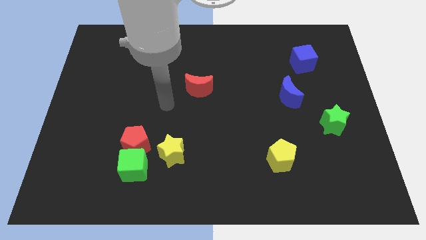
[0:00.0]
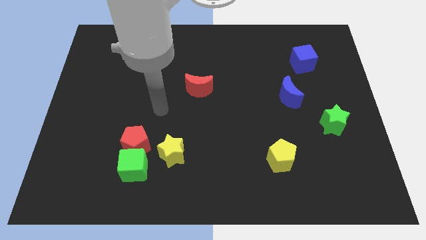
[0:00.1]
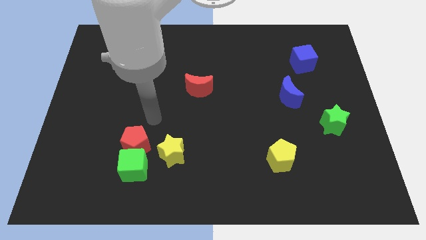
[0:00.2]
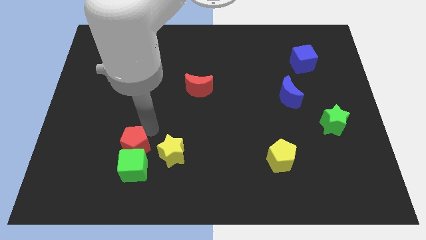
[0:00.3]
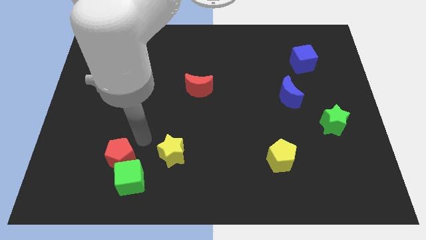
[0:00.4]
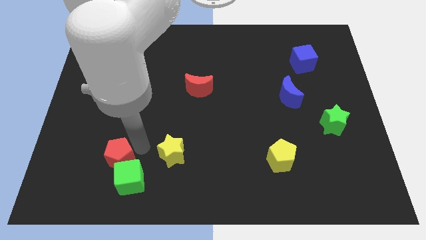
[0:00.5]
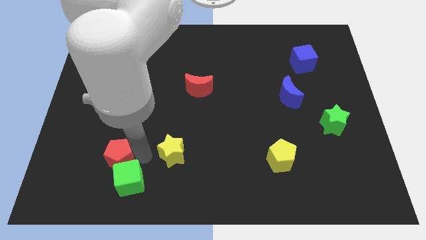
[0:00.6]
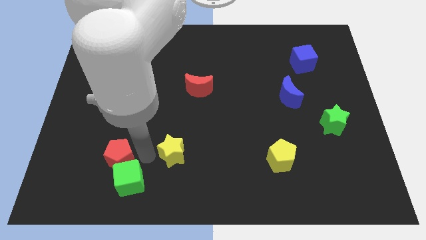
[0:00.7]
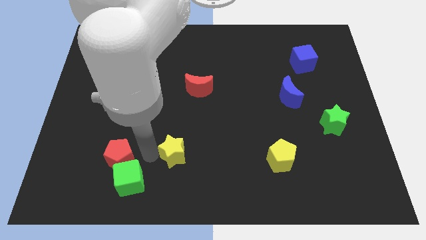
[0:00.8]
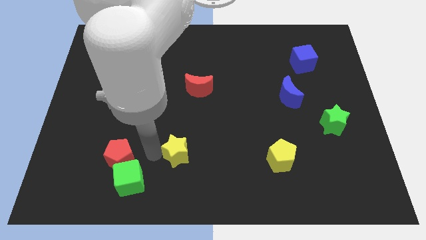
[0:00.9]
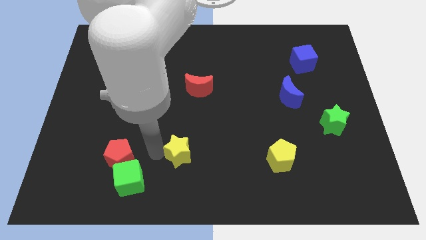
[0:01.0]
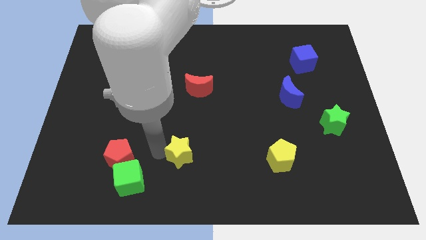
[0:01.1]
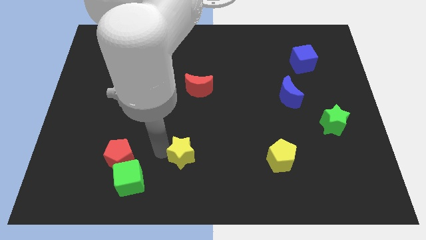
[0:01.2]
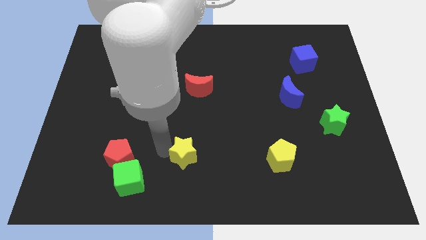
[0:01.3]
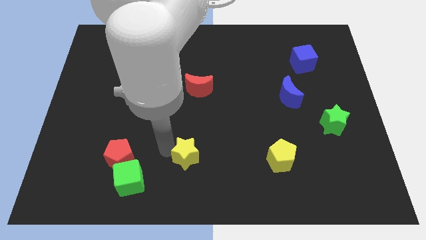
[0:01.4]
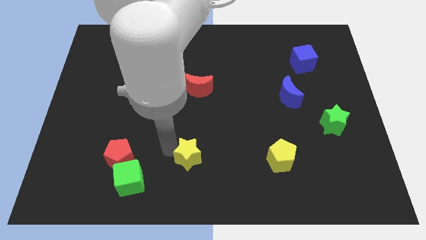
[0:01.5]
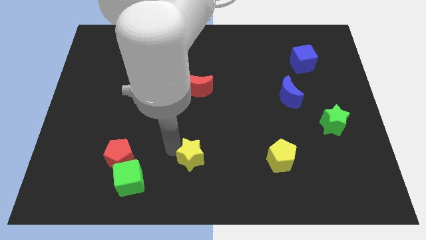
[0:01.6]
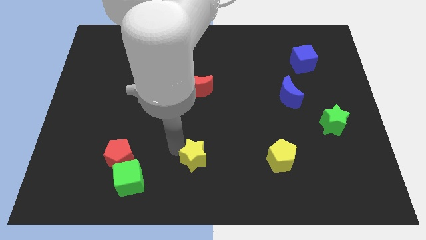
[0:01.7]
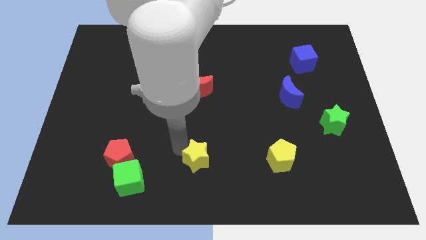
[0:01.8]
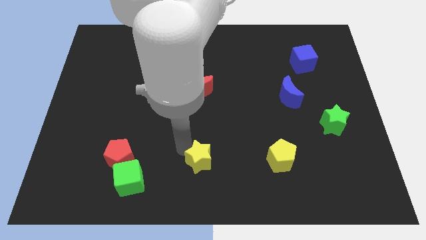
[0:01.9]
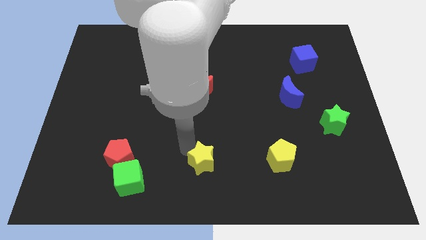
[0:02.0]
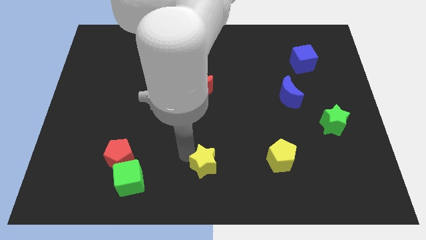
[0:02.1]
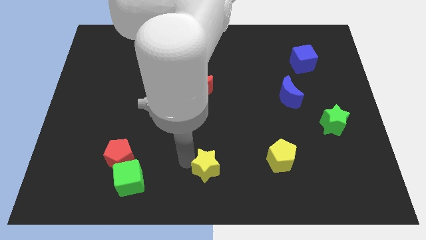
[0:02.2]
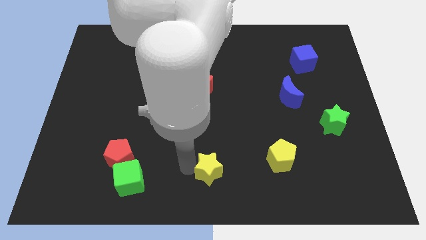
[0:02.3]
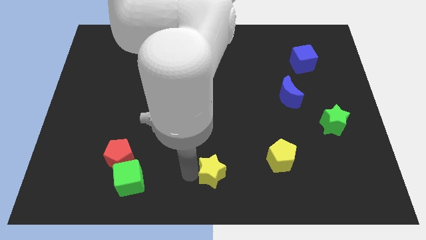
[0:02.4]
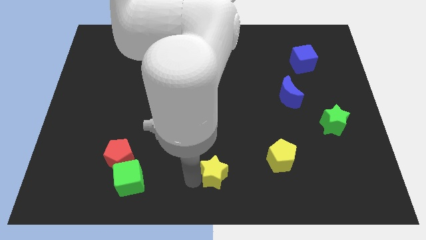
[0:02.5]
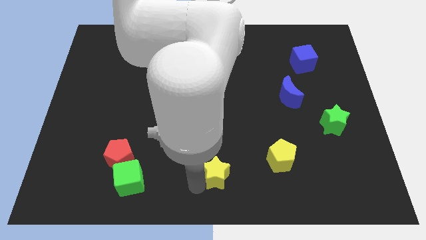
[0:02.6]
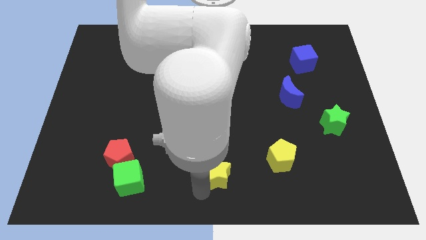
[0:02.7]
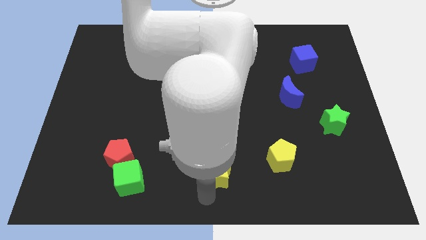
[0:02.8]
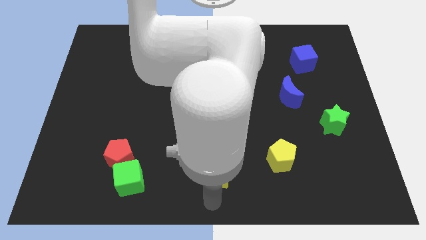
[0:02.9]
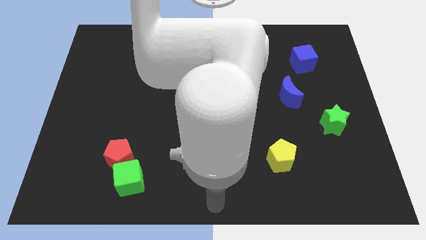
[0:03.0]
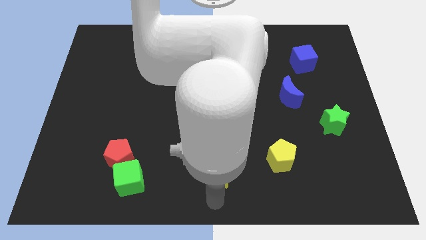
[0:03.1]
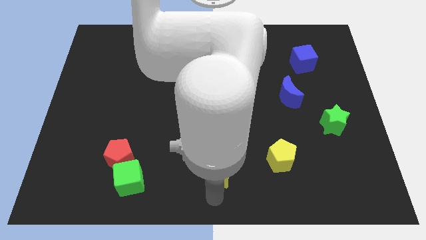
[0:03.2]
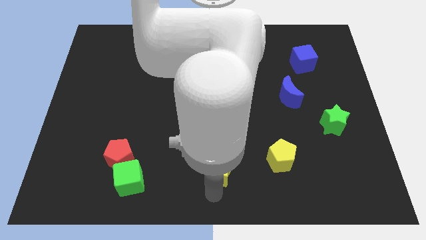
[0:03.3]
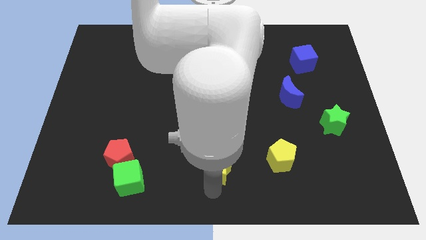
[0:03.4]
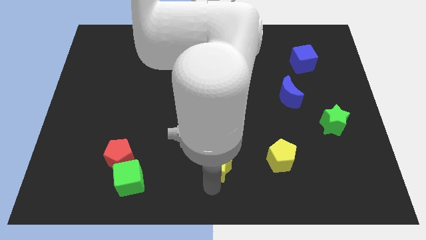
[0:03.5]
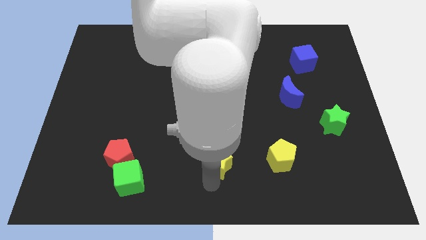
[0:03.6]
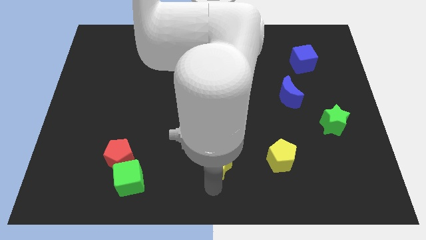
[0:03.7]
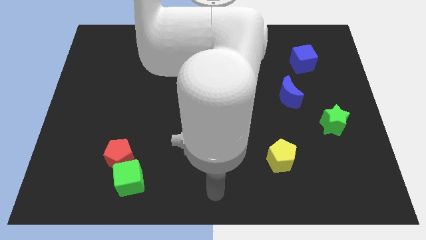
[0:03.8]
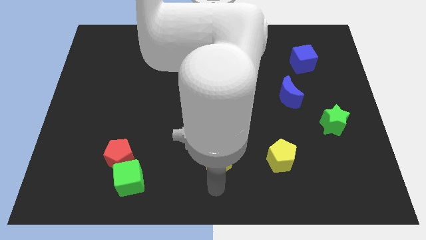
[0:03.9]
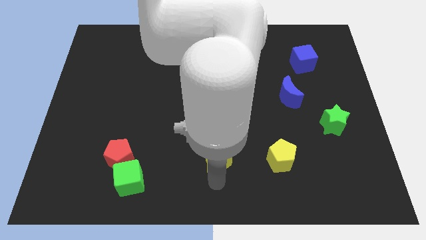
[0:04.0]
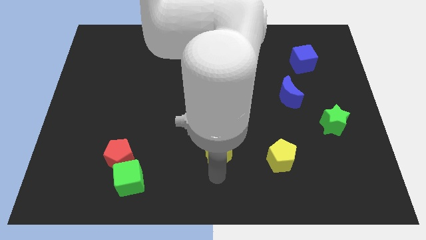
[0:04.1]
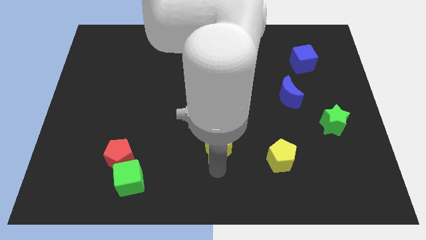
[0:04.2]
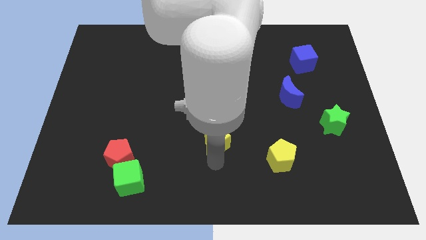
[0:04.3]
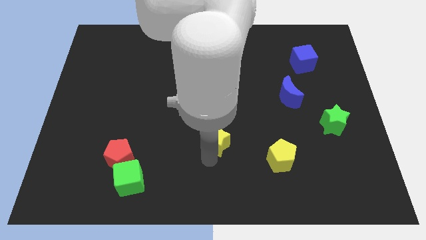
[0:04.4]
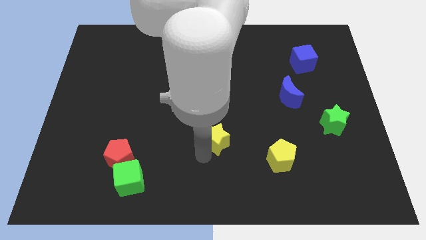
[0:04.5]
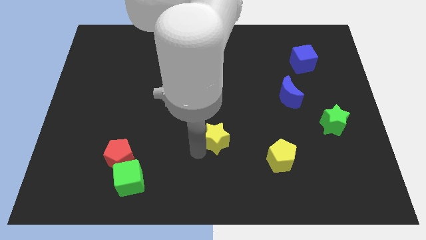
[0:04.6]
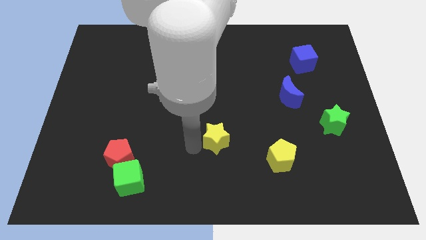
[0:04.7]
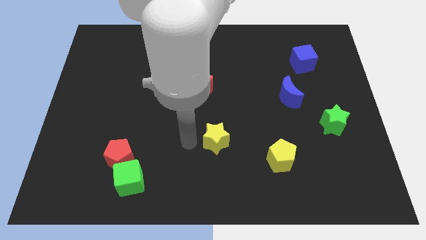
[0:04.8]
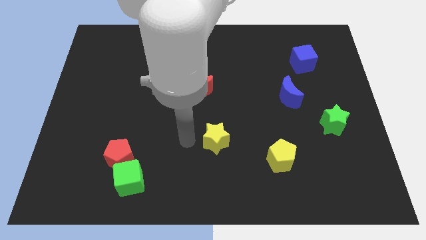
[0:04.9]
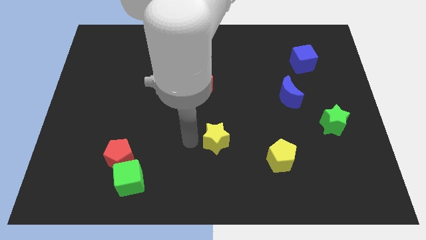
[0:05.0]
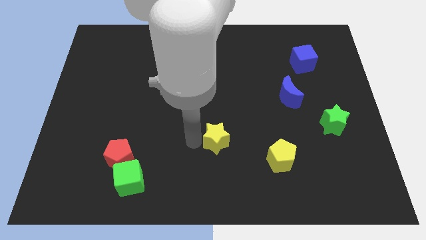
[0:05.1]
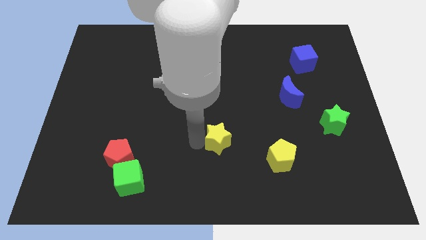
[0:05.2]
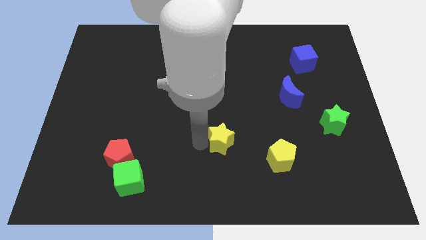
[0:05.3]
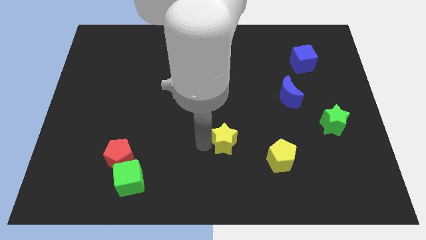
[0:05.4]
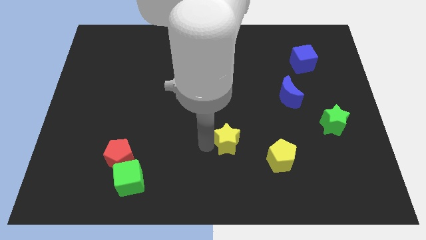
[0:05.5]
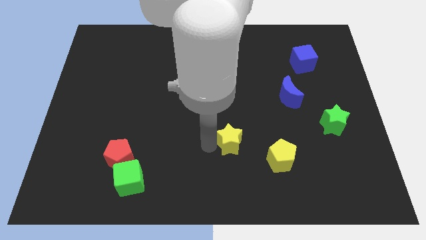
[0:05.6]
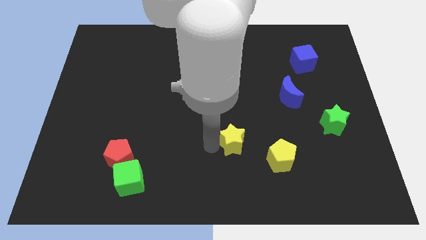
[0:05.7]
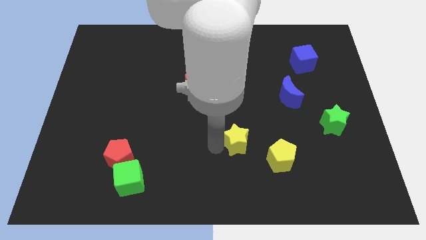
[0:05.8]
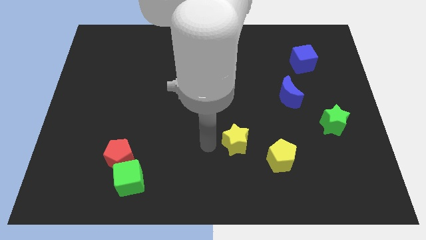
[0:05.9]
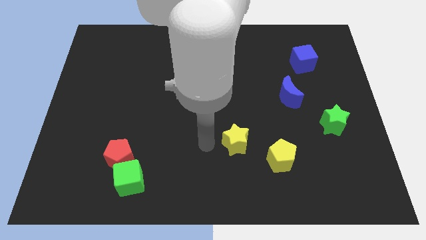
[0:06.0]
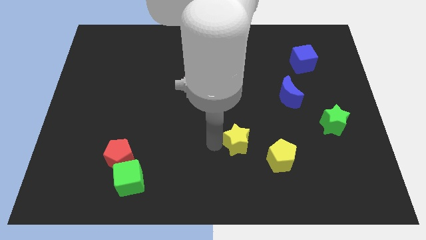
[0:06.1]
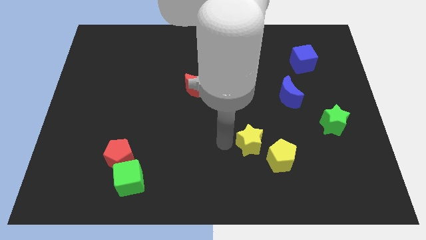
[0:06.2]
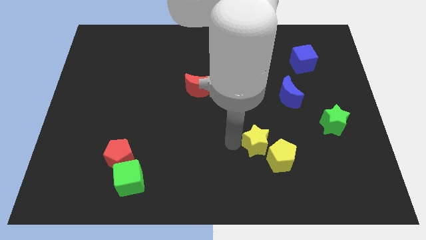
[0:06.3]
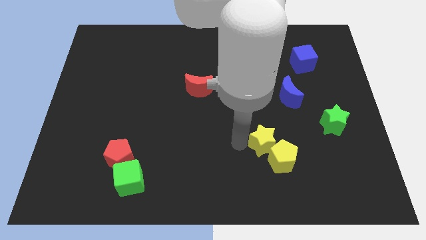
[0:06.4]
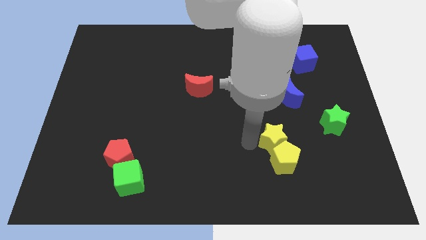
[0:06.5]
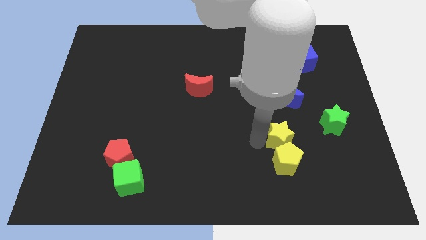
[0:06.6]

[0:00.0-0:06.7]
put the yellow star to the top right side of the yellow pentagon

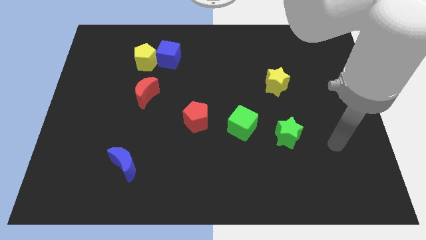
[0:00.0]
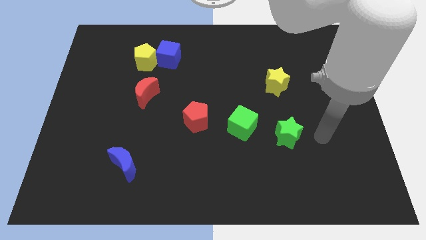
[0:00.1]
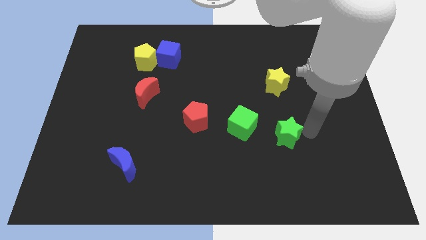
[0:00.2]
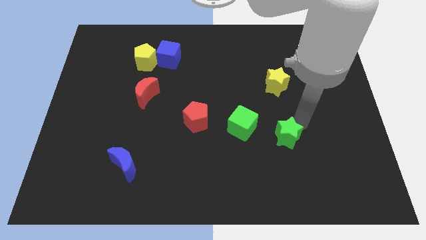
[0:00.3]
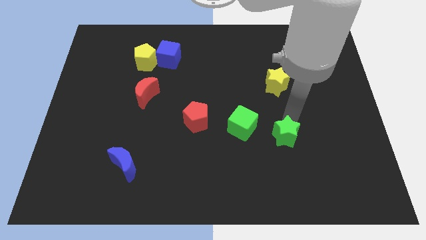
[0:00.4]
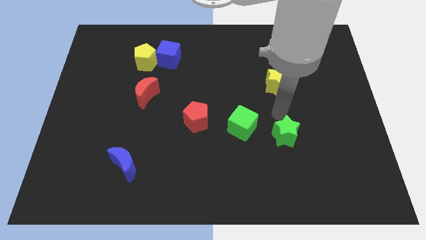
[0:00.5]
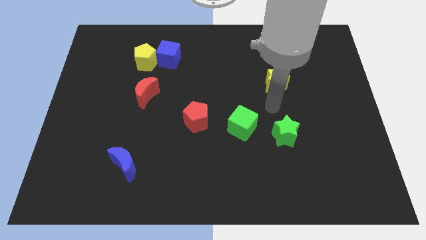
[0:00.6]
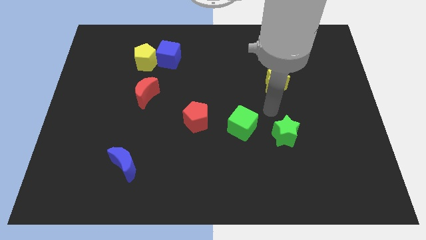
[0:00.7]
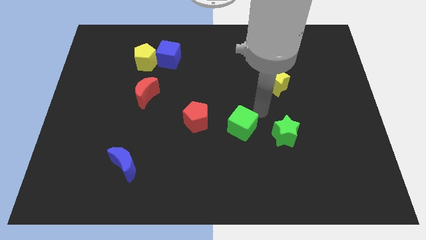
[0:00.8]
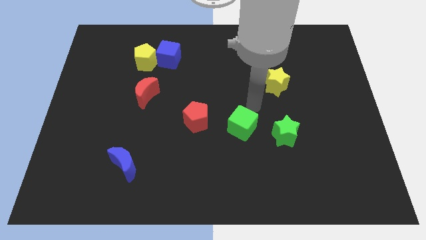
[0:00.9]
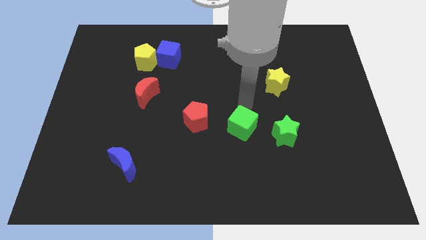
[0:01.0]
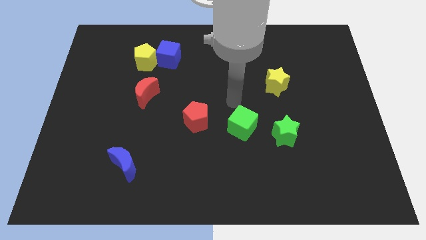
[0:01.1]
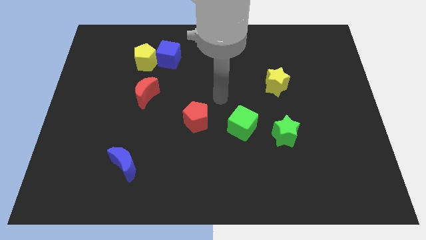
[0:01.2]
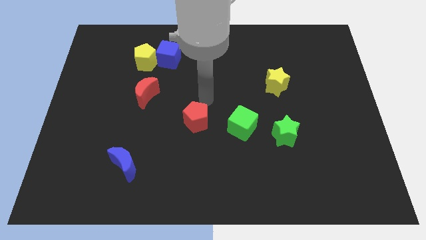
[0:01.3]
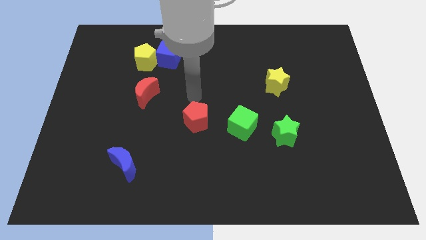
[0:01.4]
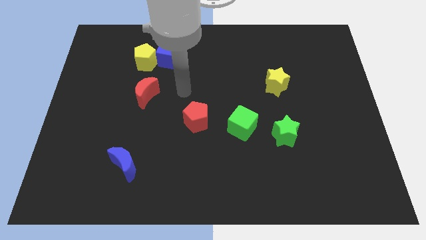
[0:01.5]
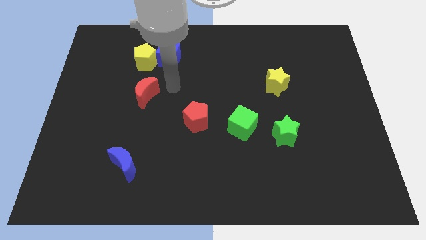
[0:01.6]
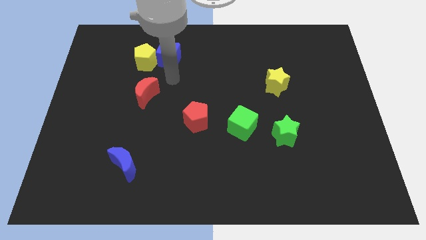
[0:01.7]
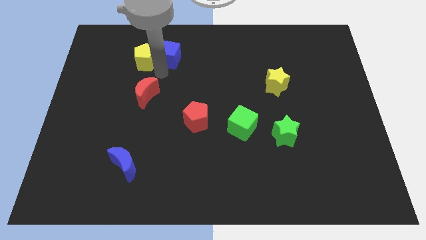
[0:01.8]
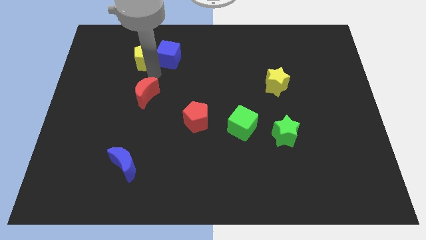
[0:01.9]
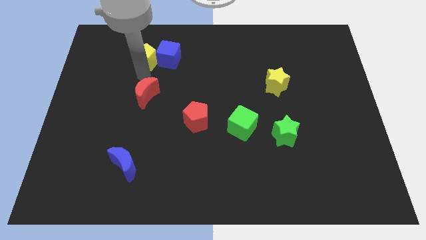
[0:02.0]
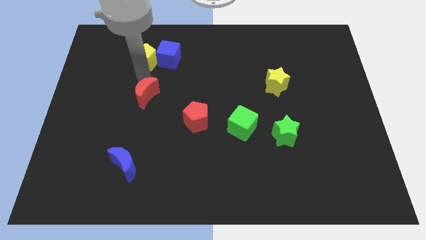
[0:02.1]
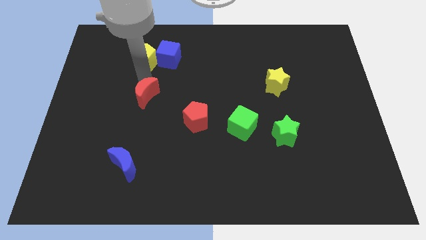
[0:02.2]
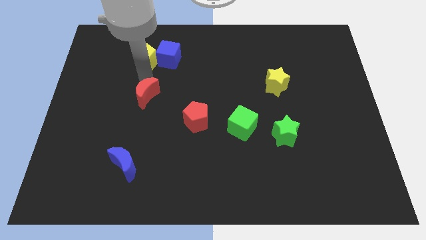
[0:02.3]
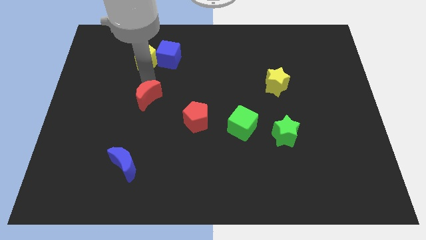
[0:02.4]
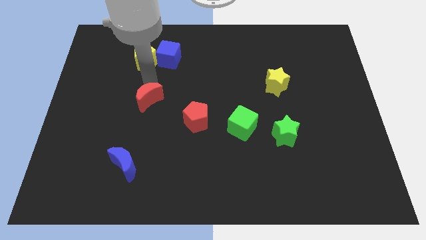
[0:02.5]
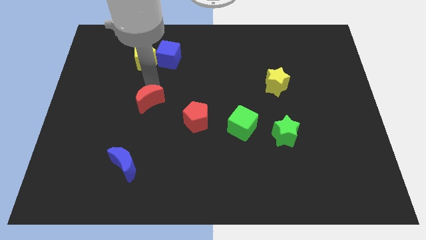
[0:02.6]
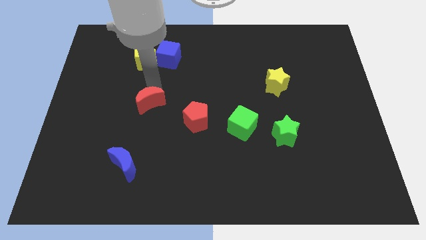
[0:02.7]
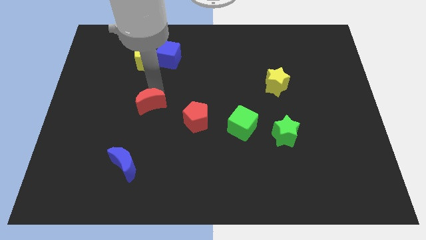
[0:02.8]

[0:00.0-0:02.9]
push the red moon just left of the red pentagon
